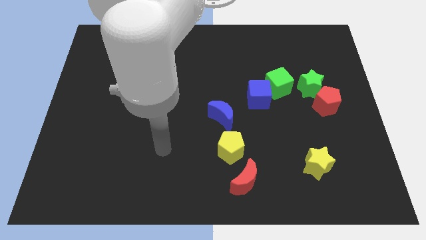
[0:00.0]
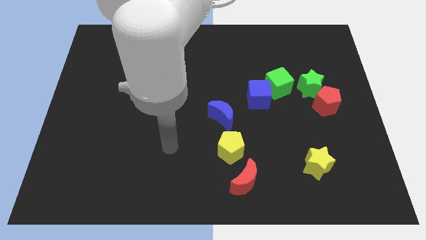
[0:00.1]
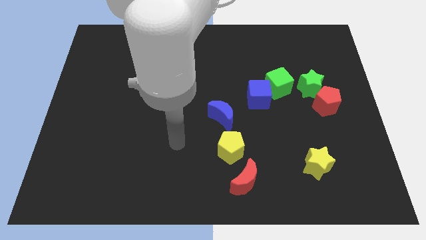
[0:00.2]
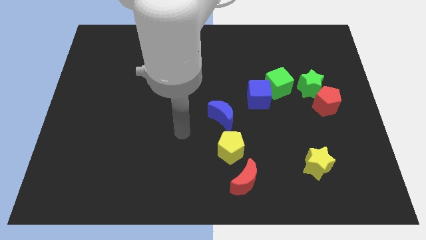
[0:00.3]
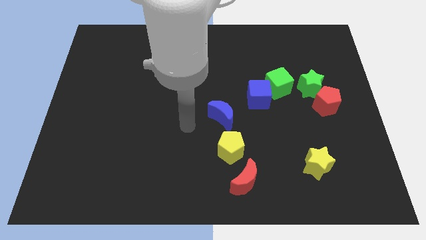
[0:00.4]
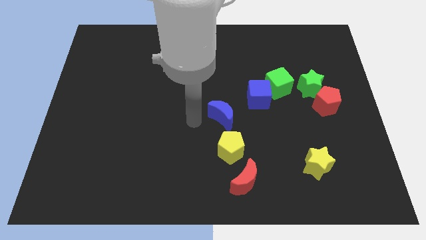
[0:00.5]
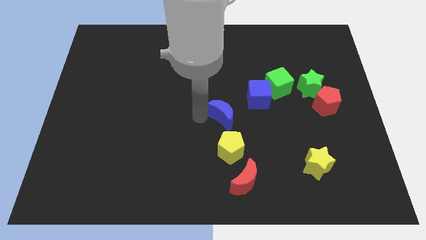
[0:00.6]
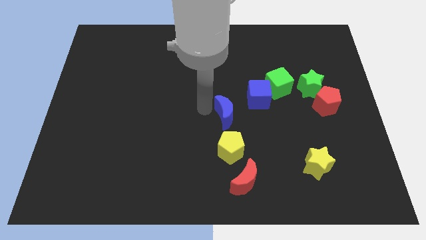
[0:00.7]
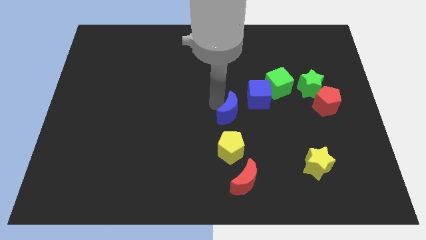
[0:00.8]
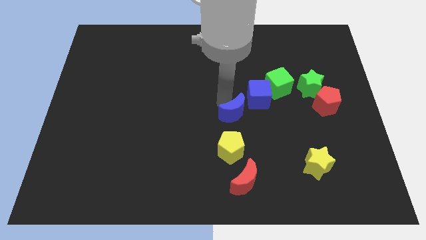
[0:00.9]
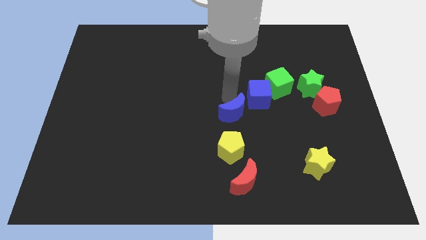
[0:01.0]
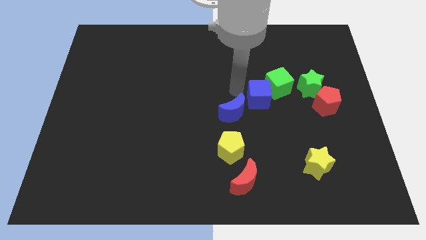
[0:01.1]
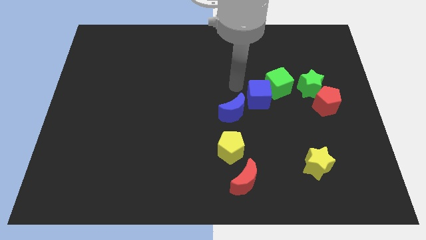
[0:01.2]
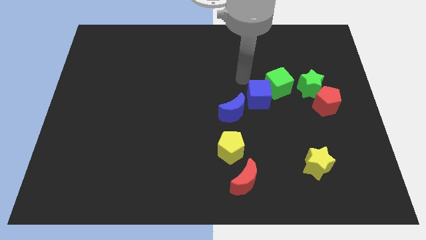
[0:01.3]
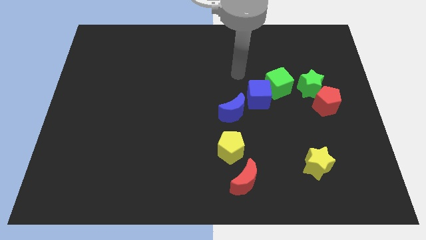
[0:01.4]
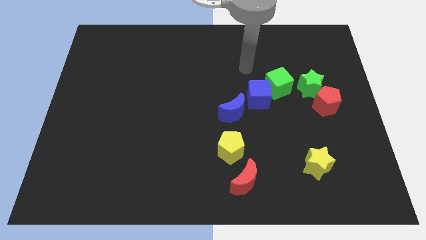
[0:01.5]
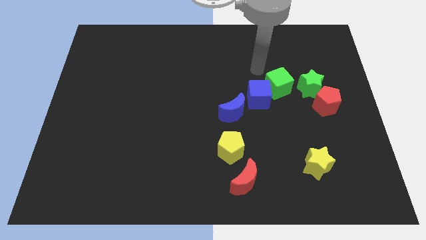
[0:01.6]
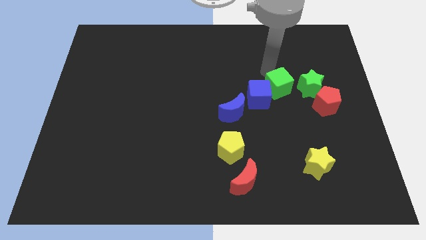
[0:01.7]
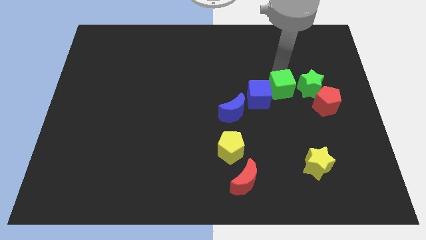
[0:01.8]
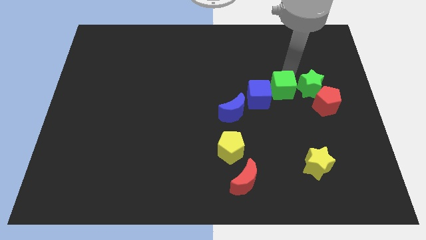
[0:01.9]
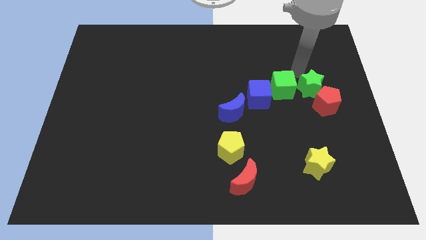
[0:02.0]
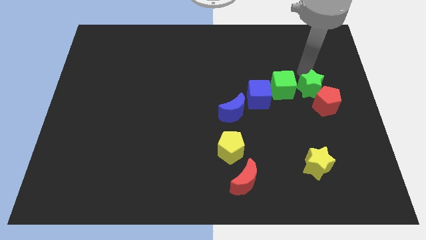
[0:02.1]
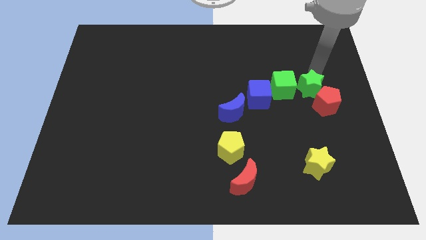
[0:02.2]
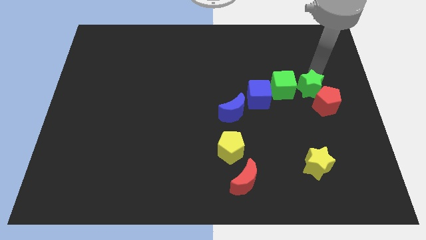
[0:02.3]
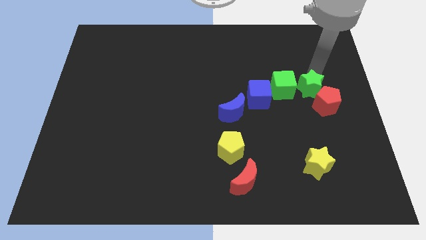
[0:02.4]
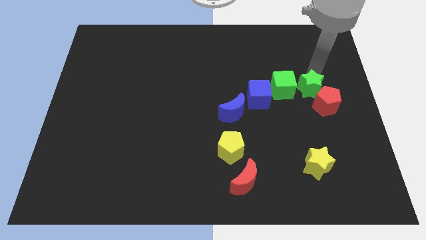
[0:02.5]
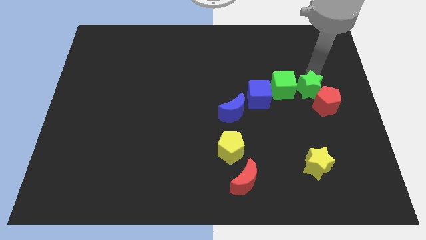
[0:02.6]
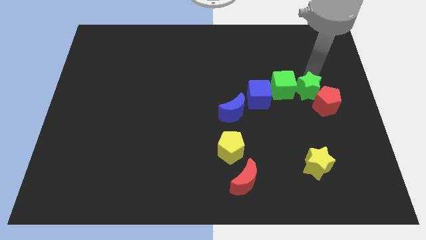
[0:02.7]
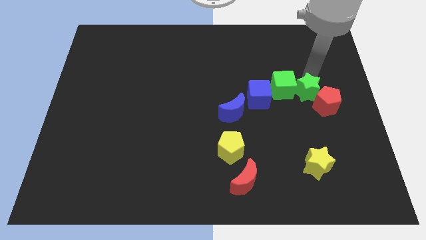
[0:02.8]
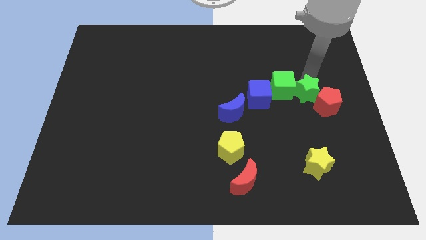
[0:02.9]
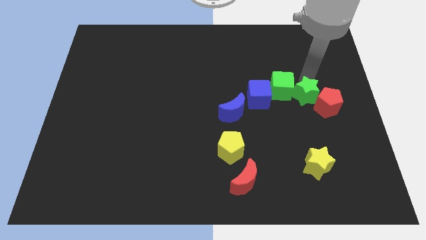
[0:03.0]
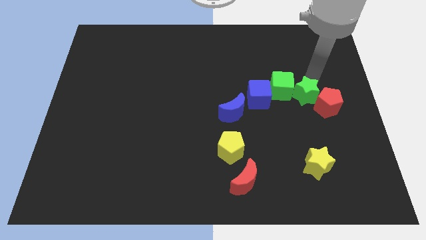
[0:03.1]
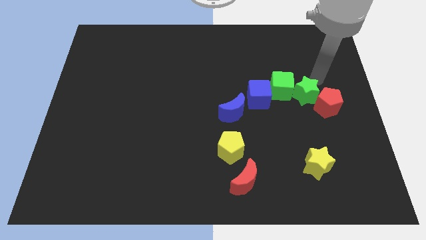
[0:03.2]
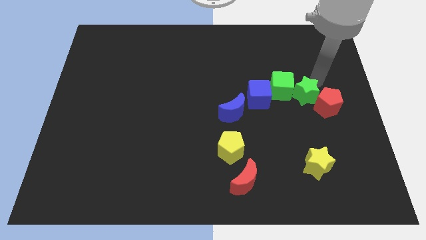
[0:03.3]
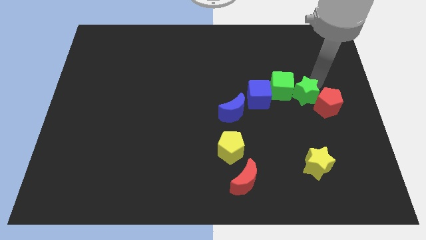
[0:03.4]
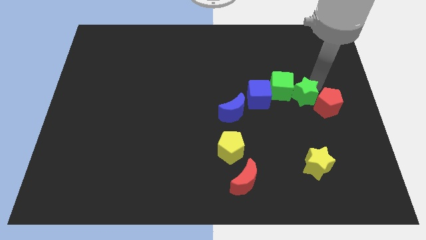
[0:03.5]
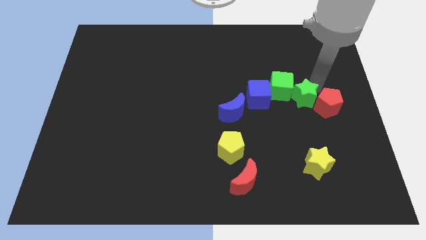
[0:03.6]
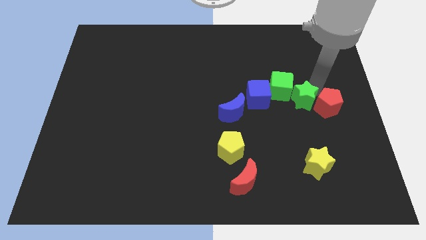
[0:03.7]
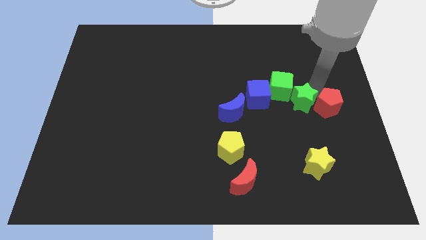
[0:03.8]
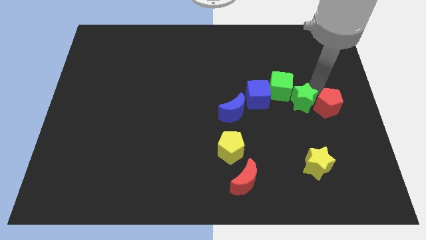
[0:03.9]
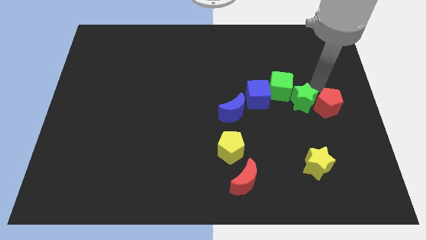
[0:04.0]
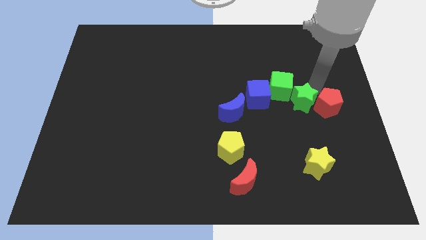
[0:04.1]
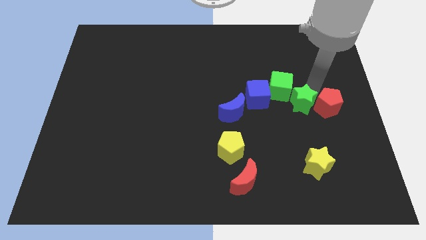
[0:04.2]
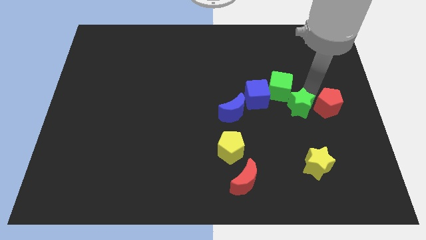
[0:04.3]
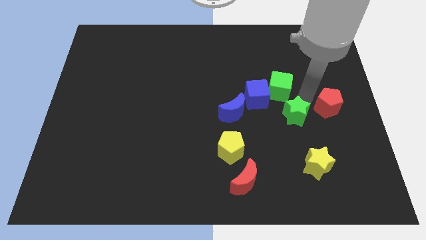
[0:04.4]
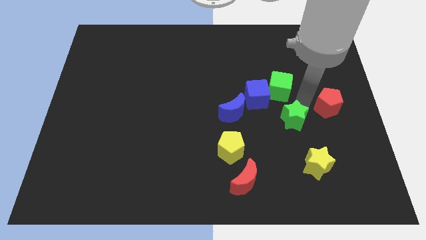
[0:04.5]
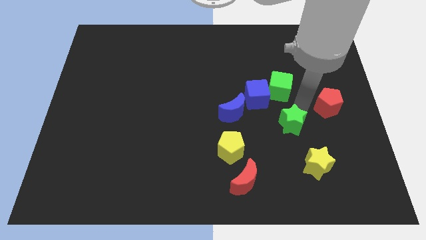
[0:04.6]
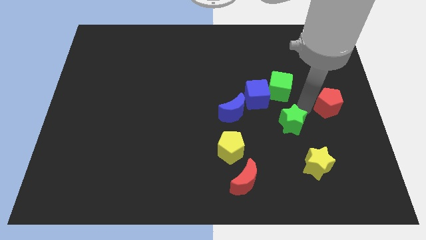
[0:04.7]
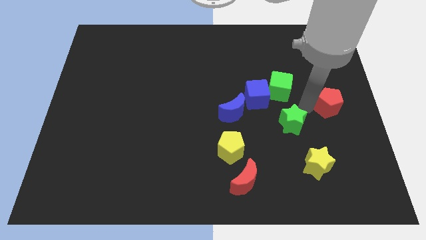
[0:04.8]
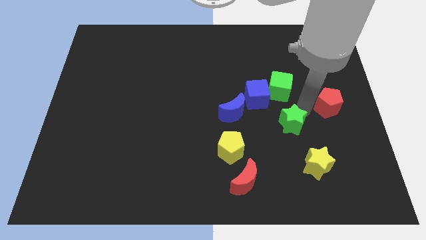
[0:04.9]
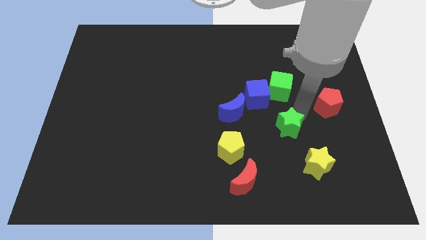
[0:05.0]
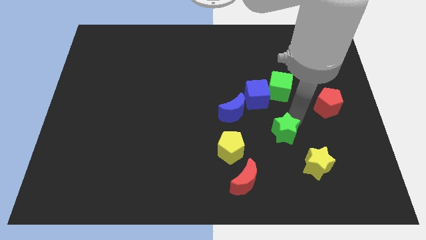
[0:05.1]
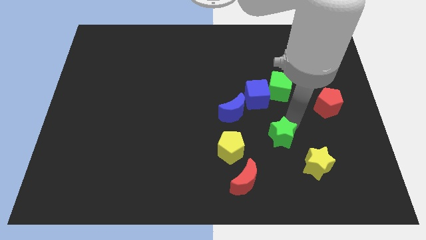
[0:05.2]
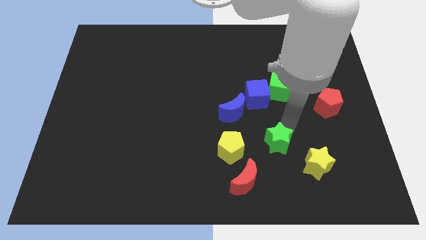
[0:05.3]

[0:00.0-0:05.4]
slide the green star to the top right side of the red moon

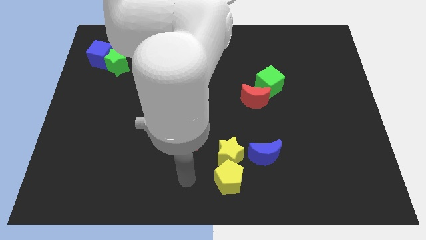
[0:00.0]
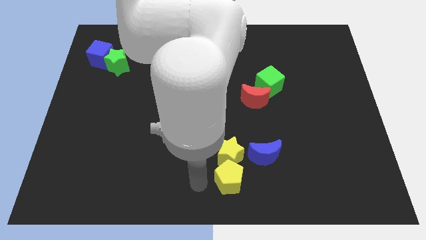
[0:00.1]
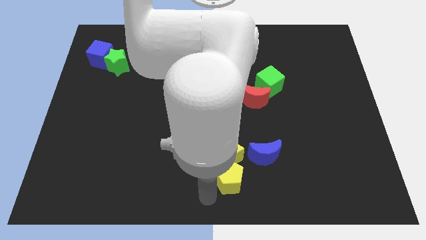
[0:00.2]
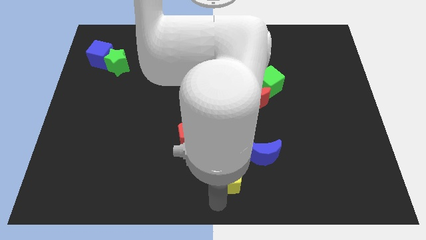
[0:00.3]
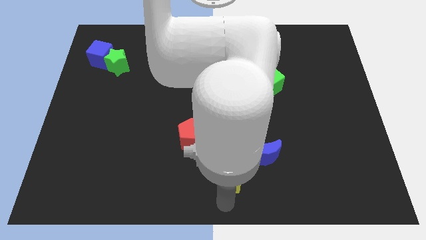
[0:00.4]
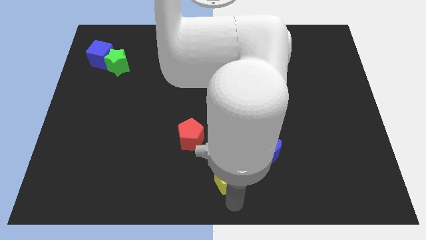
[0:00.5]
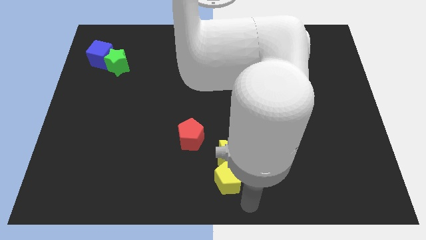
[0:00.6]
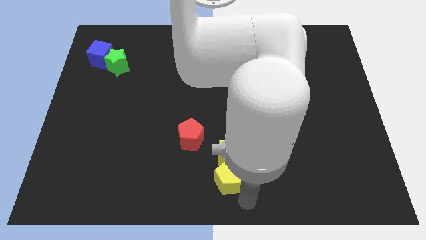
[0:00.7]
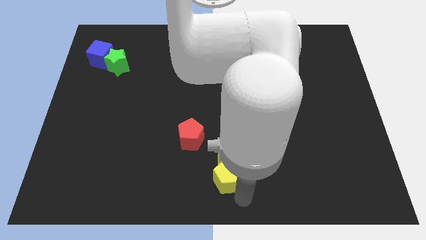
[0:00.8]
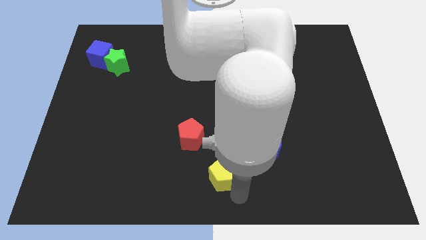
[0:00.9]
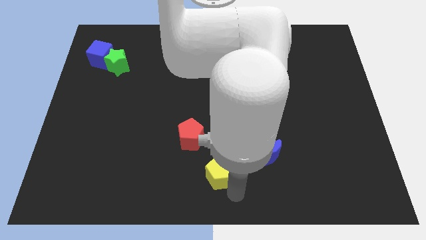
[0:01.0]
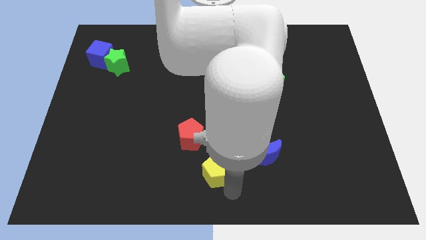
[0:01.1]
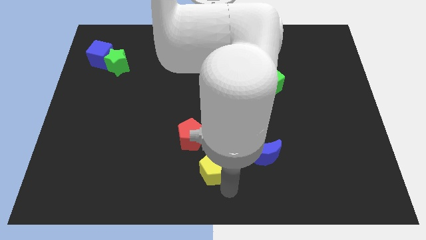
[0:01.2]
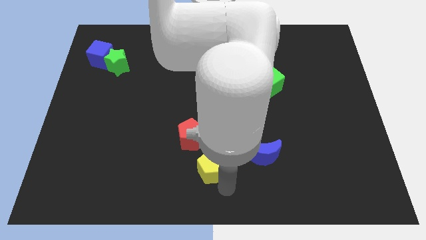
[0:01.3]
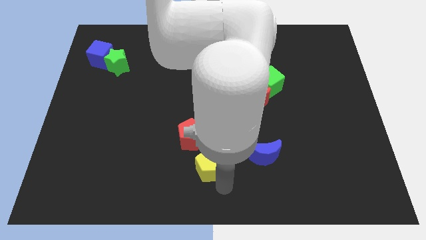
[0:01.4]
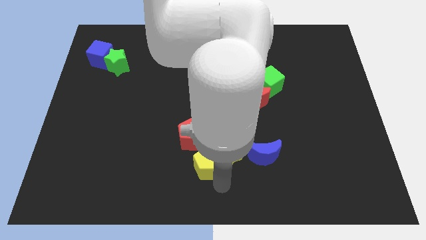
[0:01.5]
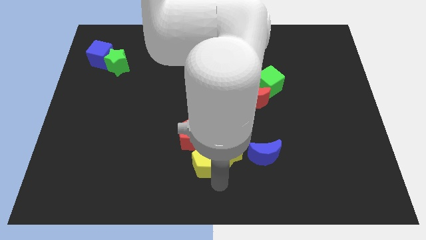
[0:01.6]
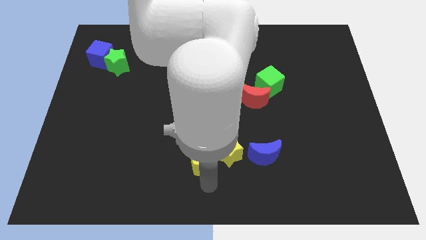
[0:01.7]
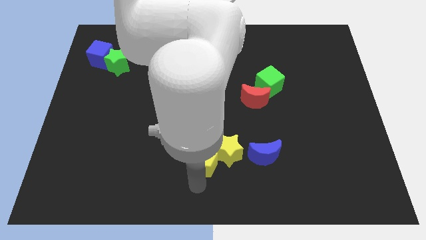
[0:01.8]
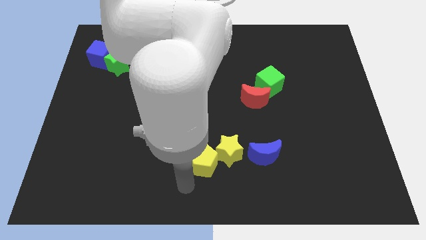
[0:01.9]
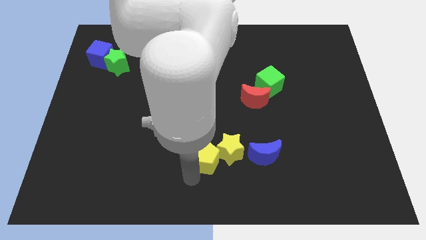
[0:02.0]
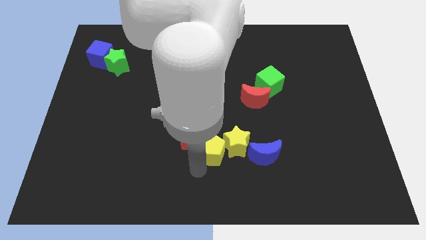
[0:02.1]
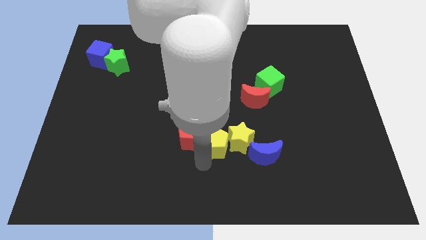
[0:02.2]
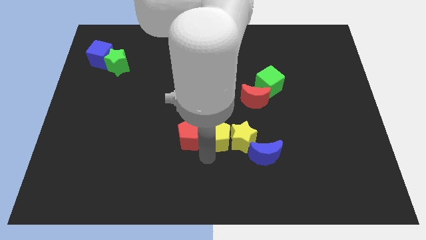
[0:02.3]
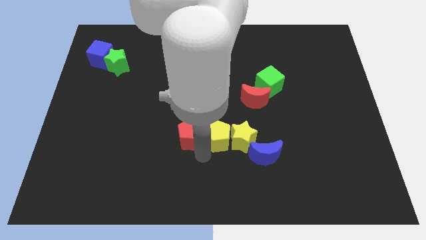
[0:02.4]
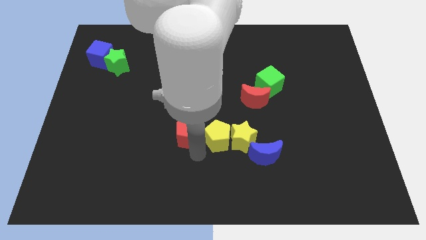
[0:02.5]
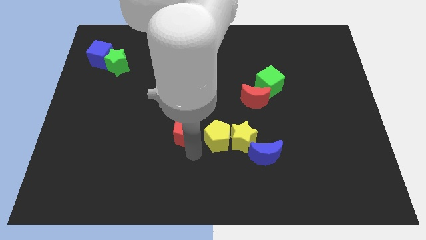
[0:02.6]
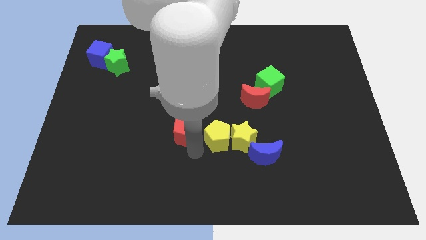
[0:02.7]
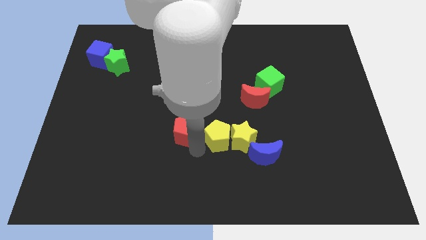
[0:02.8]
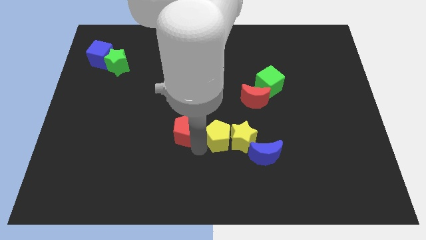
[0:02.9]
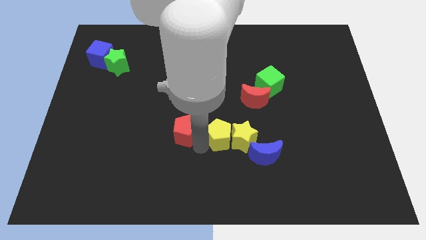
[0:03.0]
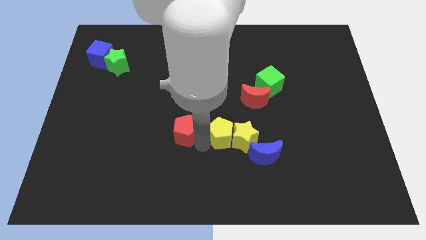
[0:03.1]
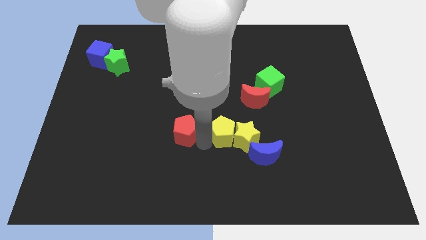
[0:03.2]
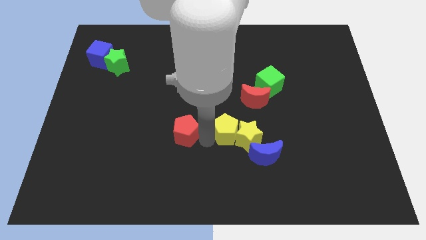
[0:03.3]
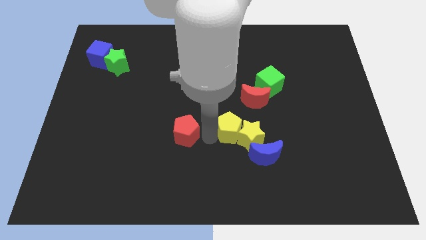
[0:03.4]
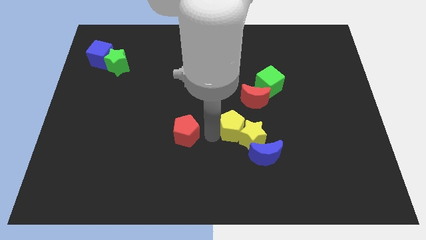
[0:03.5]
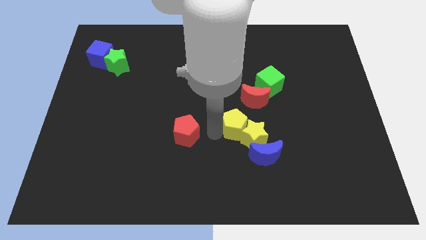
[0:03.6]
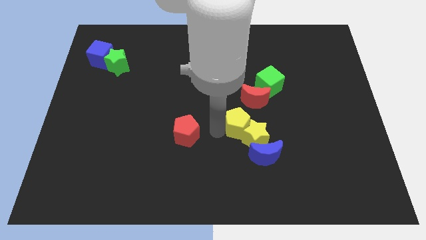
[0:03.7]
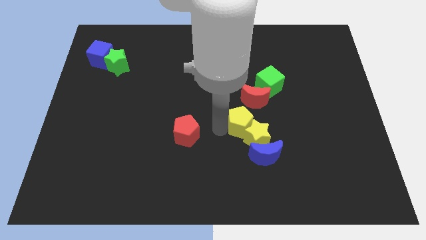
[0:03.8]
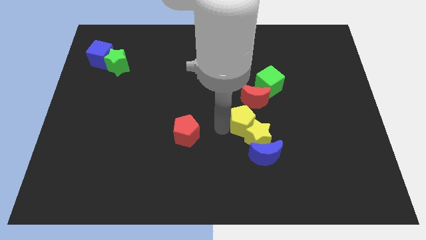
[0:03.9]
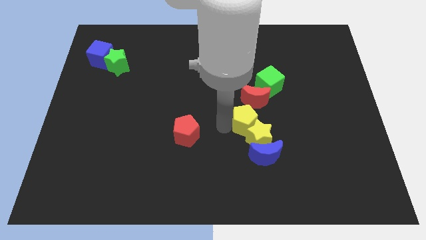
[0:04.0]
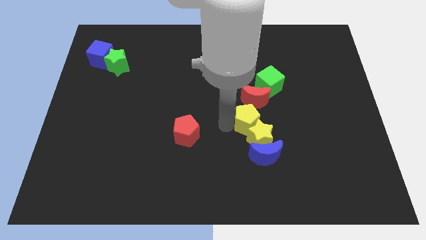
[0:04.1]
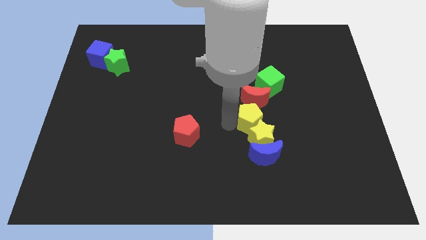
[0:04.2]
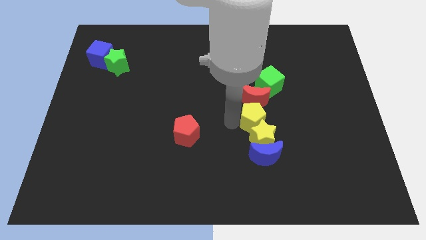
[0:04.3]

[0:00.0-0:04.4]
move the yellow pentagon to the bottom side of the green cube
